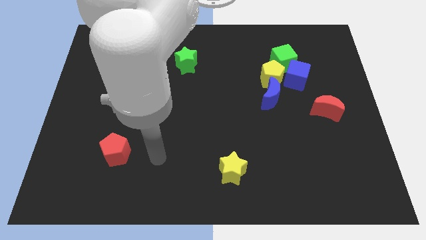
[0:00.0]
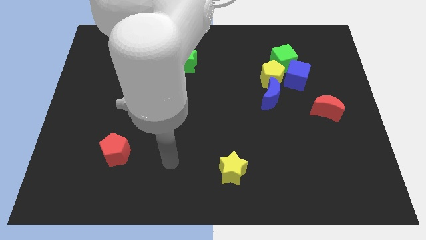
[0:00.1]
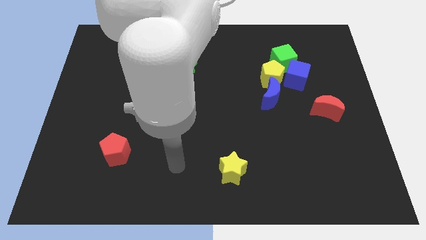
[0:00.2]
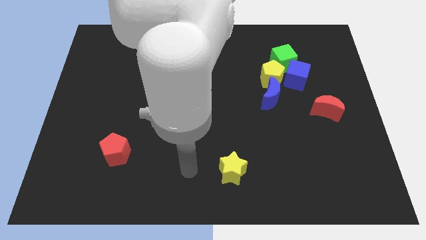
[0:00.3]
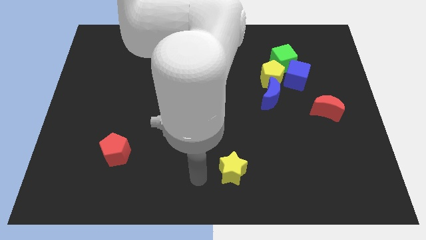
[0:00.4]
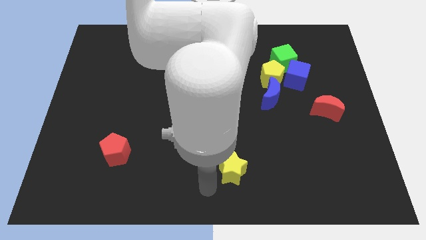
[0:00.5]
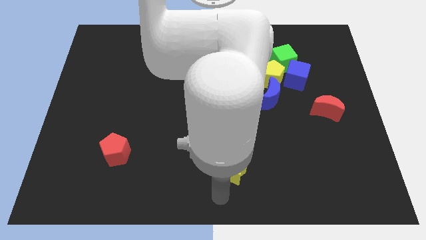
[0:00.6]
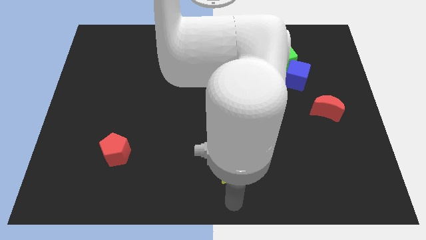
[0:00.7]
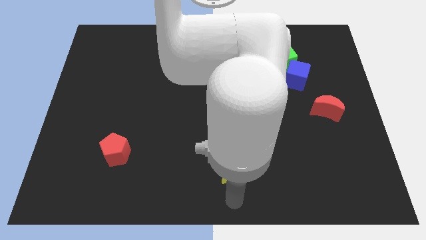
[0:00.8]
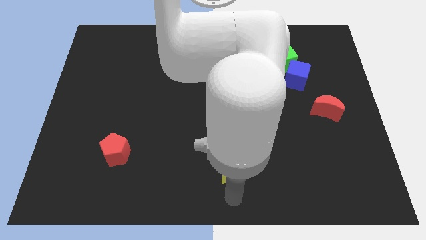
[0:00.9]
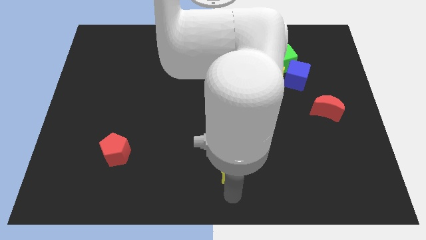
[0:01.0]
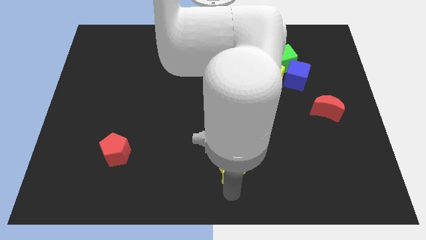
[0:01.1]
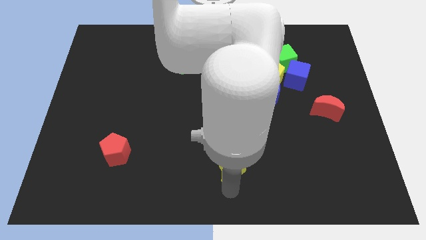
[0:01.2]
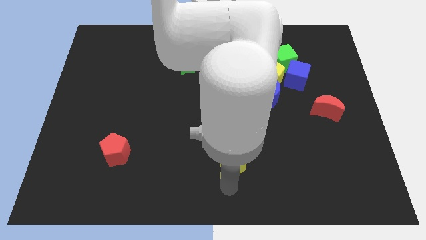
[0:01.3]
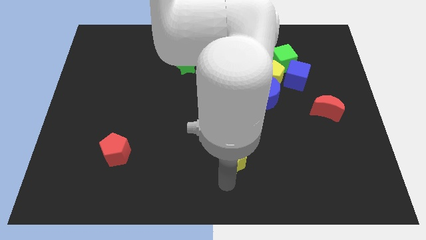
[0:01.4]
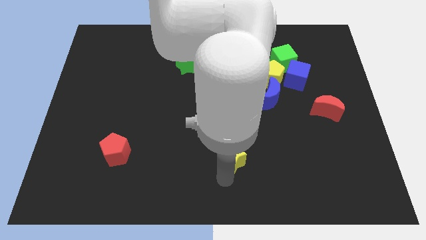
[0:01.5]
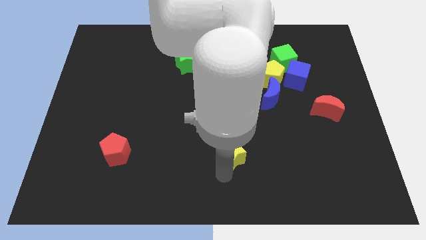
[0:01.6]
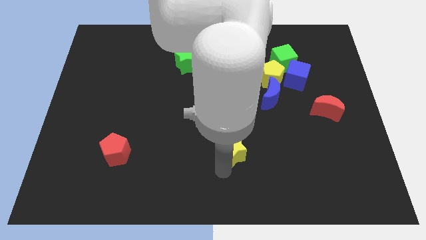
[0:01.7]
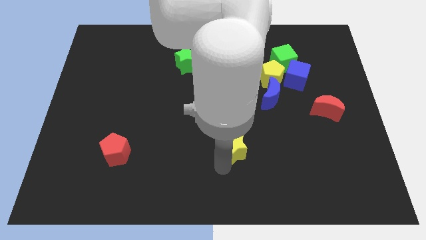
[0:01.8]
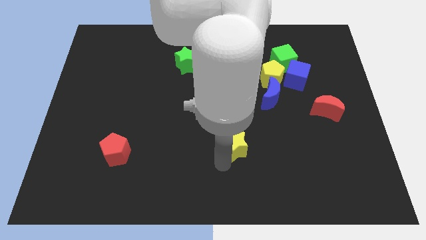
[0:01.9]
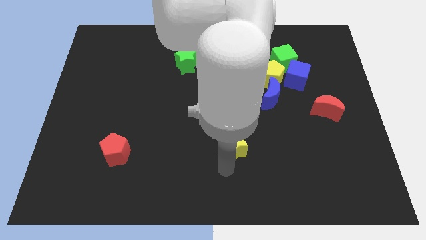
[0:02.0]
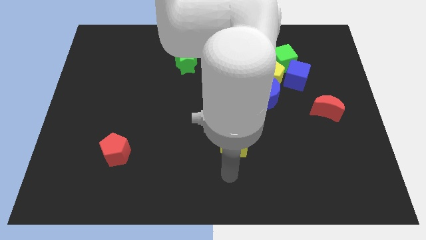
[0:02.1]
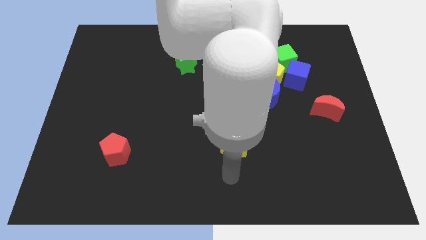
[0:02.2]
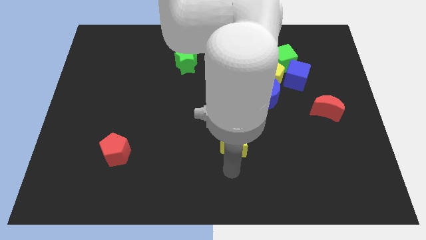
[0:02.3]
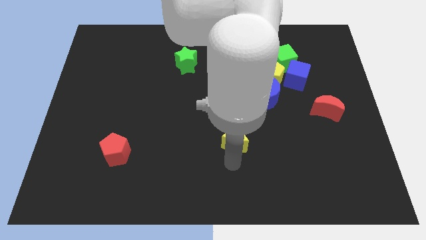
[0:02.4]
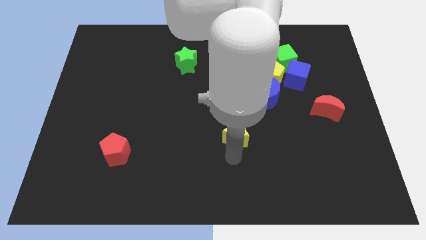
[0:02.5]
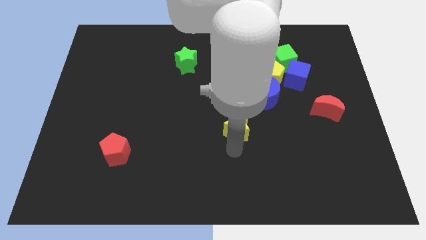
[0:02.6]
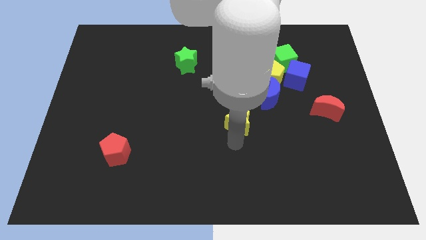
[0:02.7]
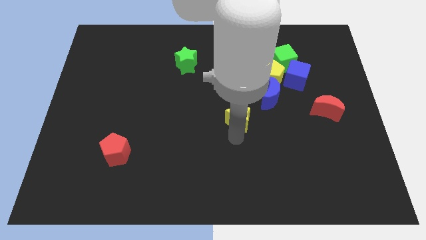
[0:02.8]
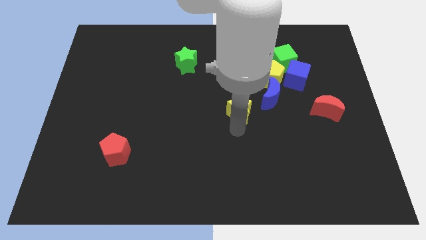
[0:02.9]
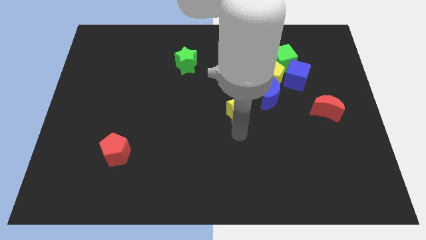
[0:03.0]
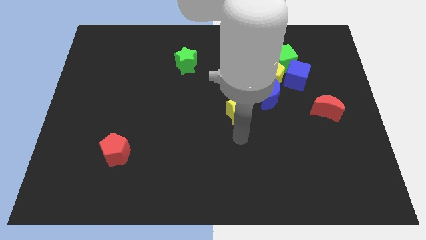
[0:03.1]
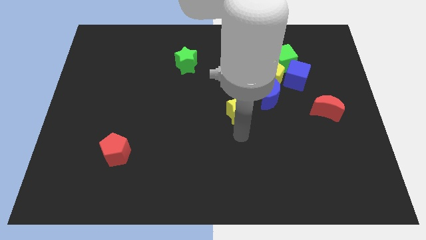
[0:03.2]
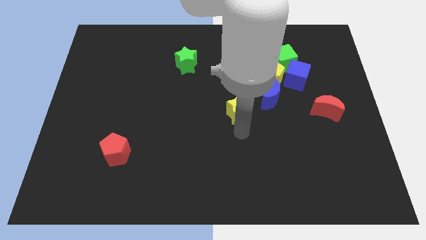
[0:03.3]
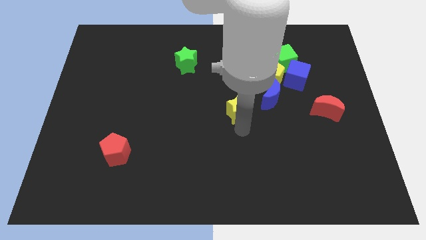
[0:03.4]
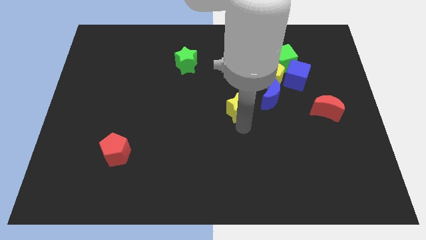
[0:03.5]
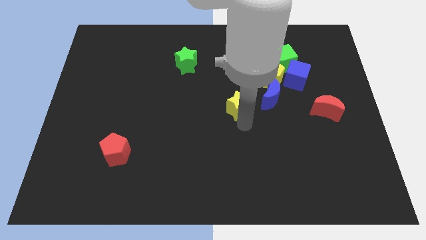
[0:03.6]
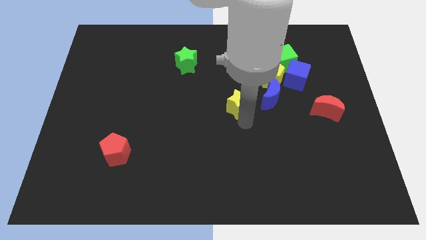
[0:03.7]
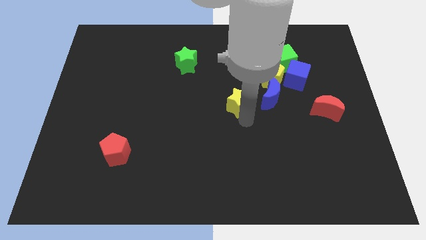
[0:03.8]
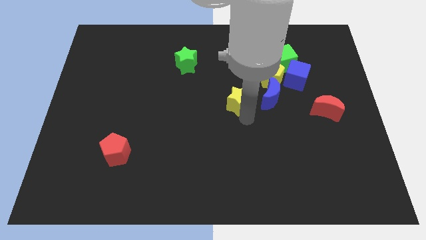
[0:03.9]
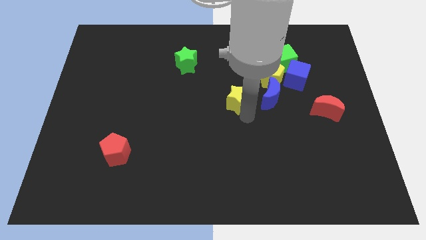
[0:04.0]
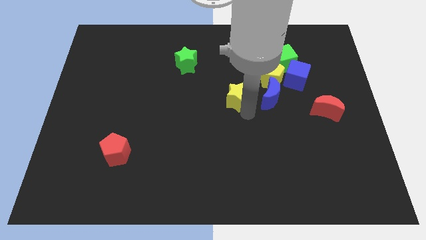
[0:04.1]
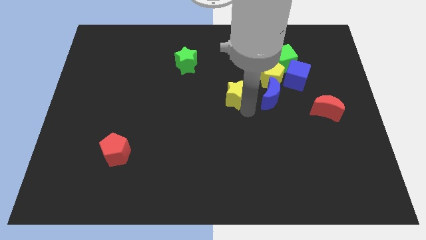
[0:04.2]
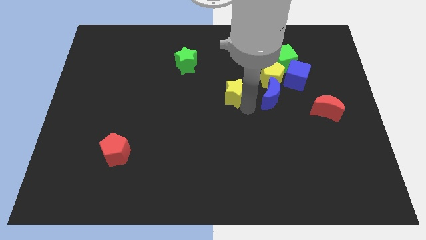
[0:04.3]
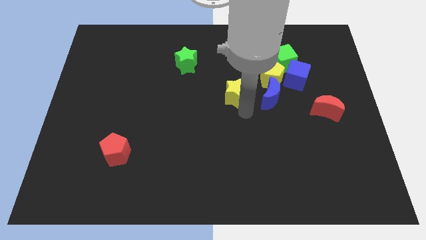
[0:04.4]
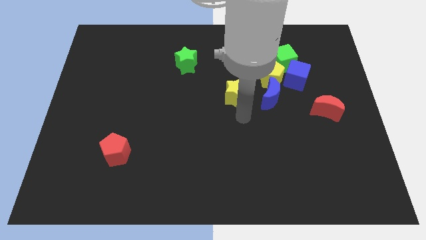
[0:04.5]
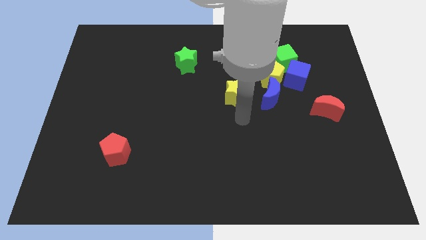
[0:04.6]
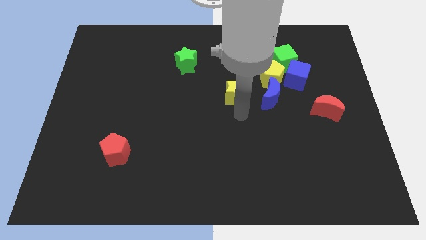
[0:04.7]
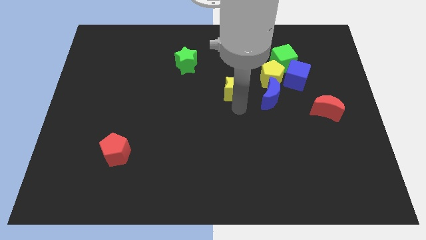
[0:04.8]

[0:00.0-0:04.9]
slide the yellow star left of the yellow pentagon

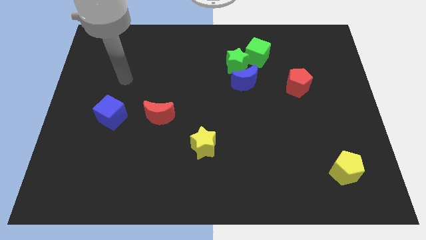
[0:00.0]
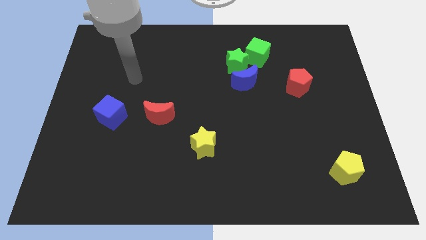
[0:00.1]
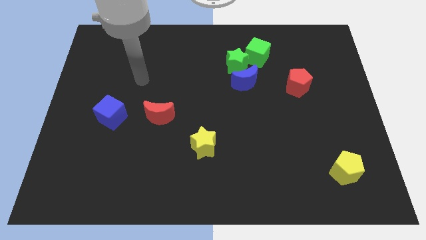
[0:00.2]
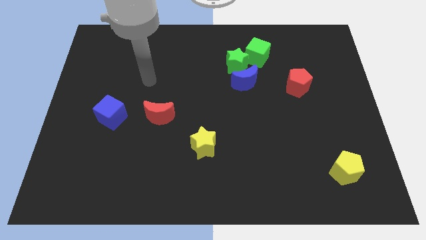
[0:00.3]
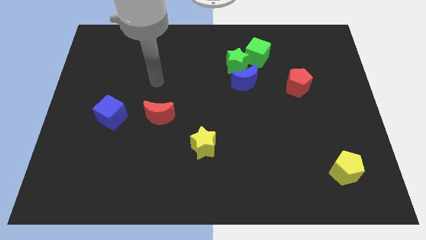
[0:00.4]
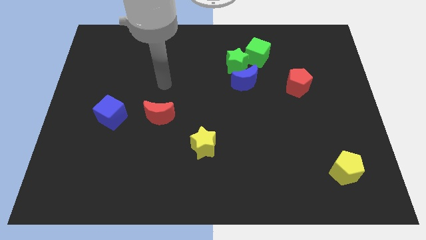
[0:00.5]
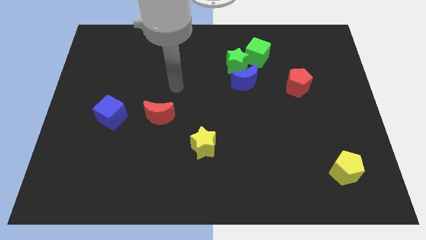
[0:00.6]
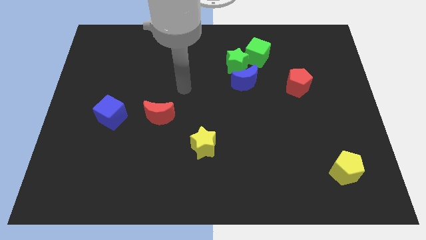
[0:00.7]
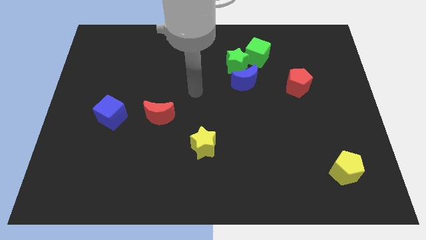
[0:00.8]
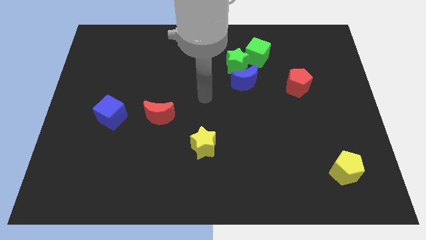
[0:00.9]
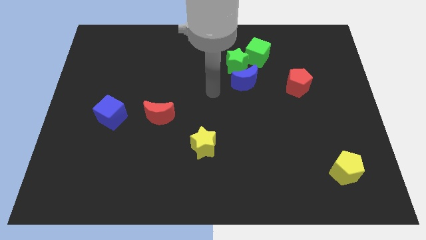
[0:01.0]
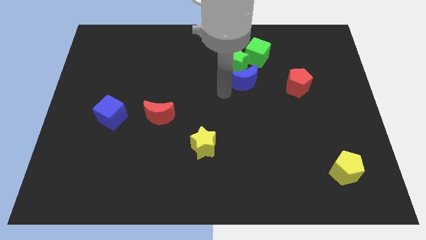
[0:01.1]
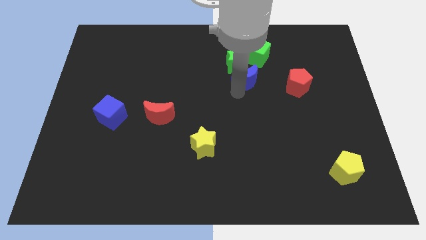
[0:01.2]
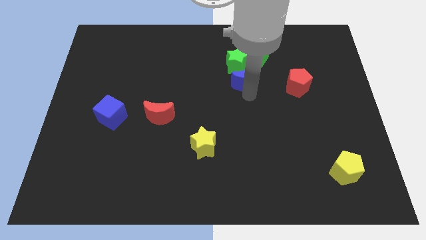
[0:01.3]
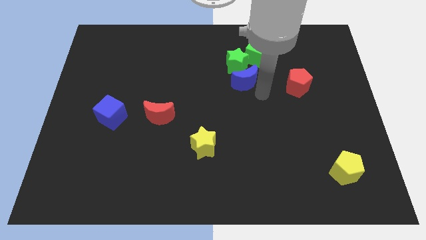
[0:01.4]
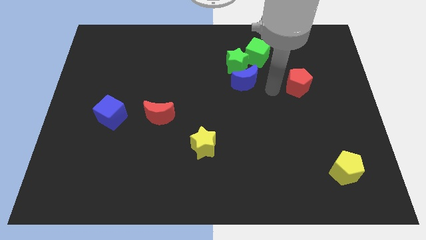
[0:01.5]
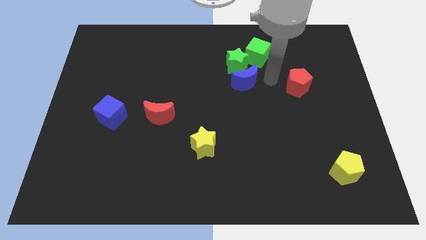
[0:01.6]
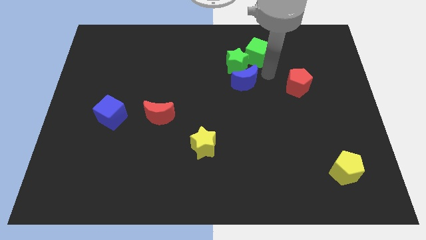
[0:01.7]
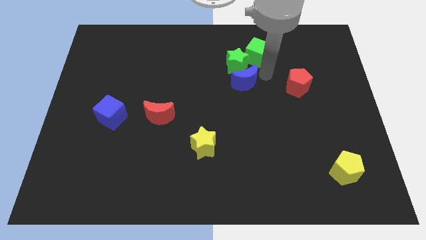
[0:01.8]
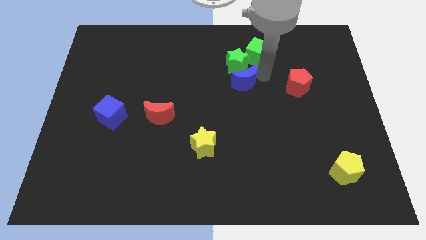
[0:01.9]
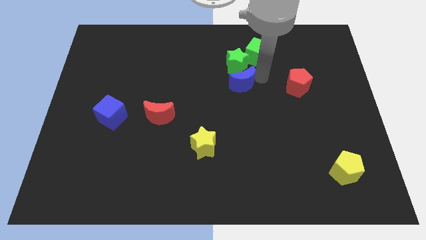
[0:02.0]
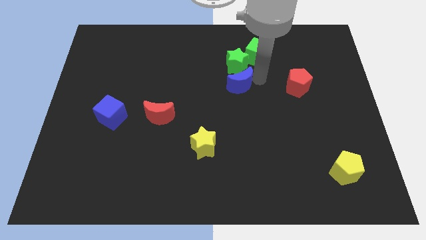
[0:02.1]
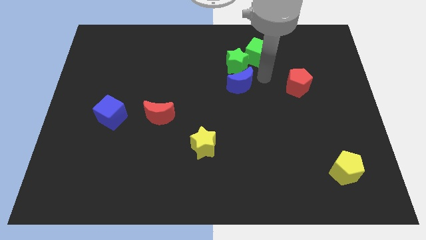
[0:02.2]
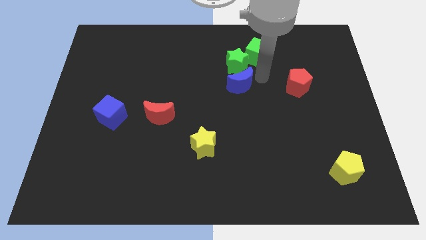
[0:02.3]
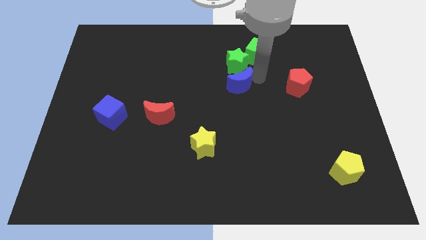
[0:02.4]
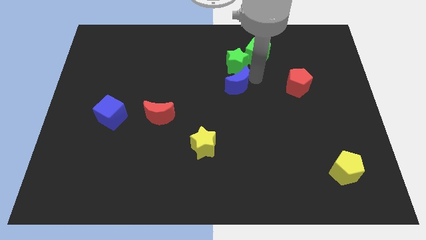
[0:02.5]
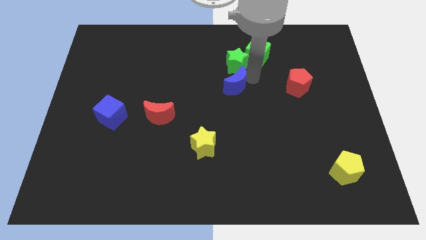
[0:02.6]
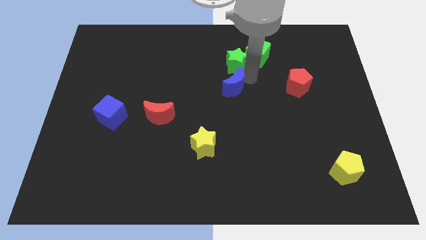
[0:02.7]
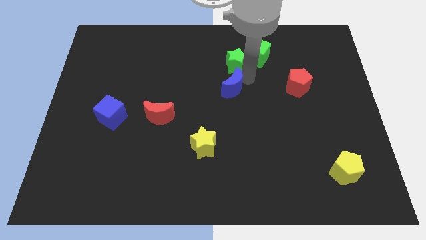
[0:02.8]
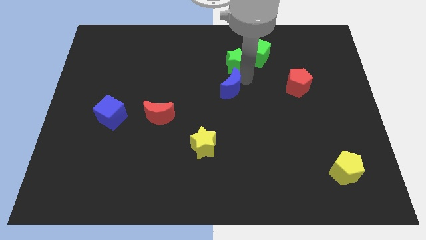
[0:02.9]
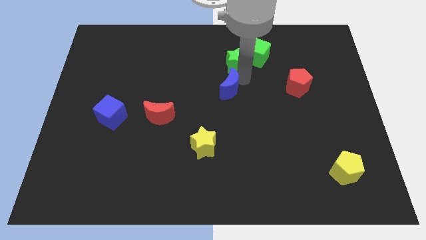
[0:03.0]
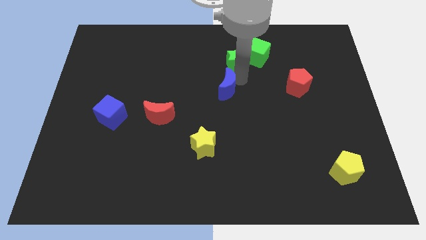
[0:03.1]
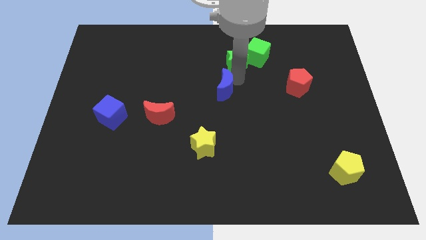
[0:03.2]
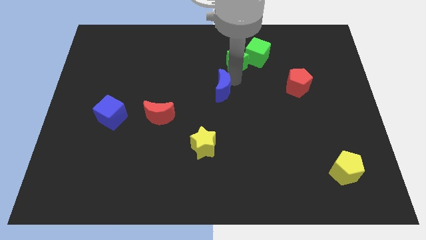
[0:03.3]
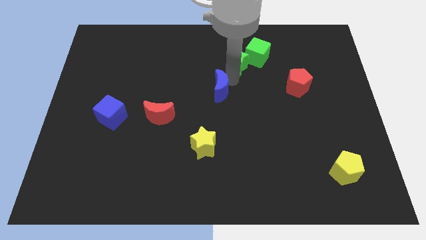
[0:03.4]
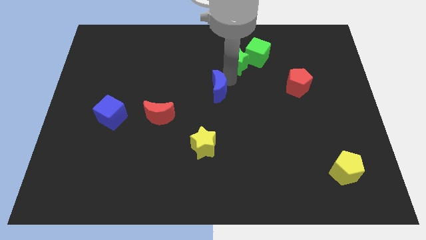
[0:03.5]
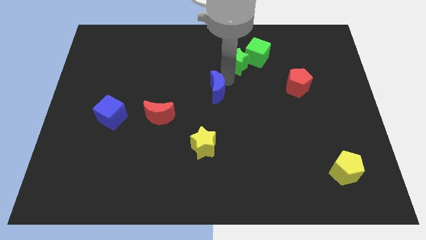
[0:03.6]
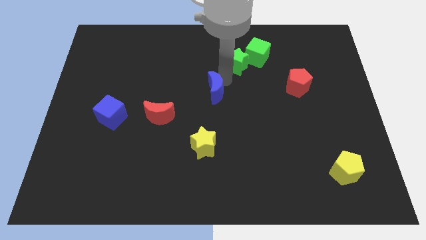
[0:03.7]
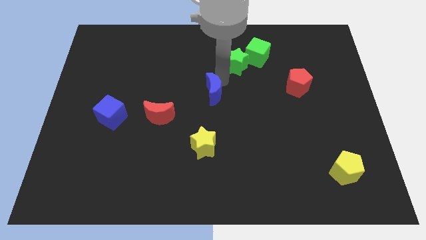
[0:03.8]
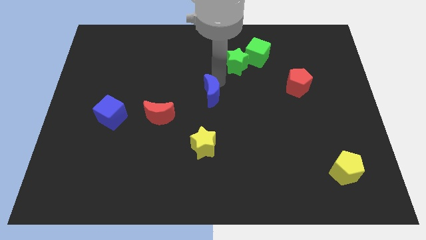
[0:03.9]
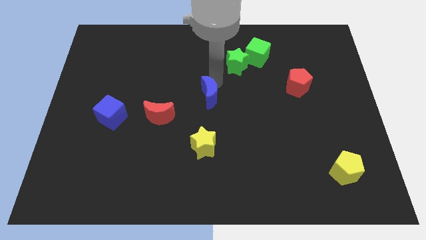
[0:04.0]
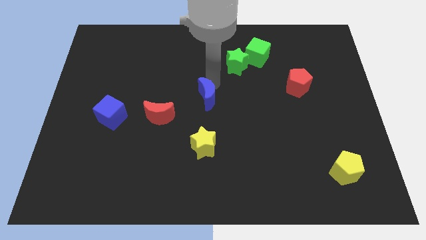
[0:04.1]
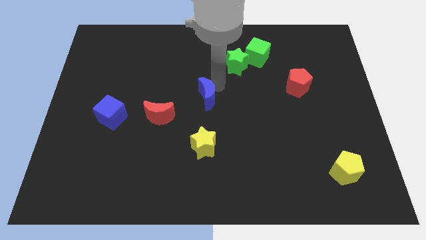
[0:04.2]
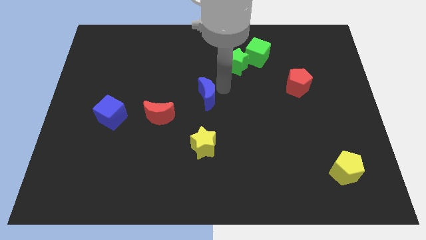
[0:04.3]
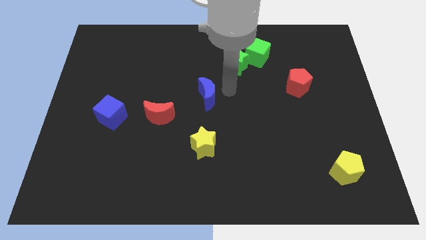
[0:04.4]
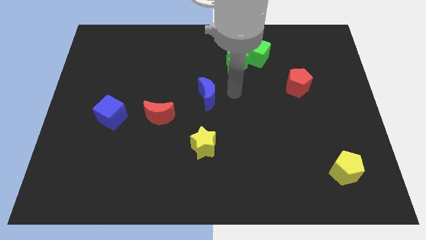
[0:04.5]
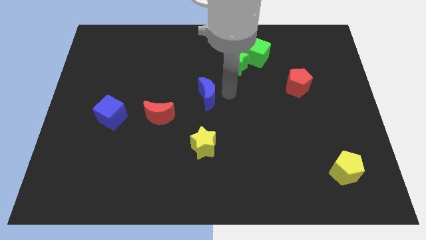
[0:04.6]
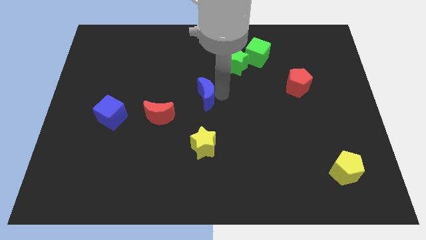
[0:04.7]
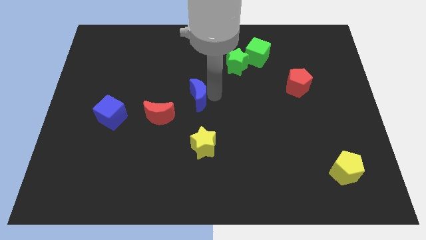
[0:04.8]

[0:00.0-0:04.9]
put the blue moon to the top right side of the red moon
